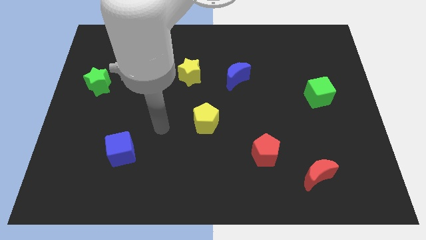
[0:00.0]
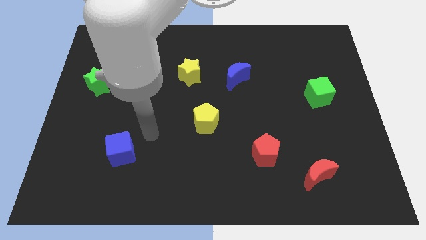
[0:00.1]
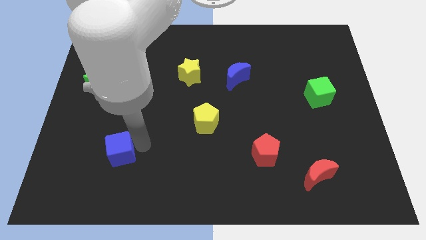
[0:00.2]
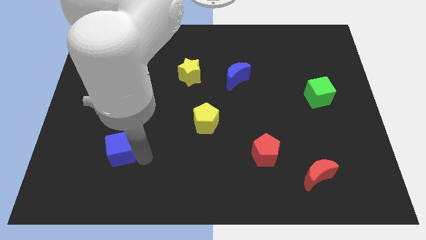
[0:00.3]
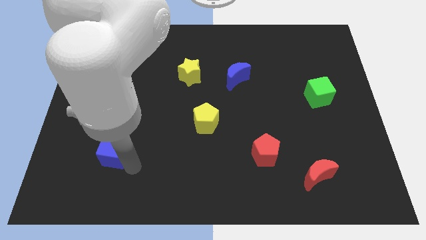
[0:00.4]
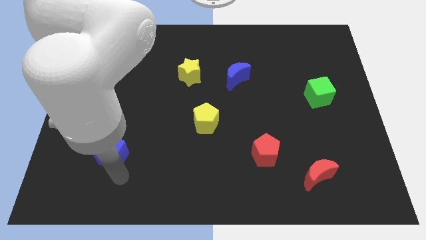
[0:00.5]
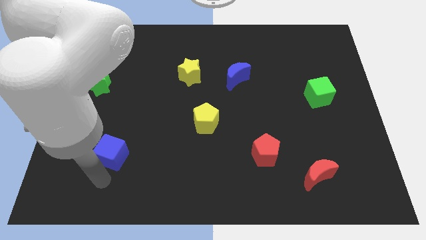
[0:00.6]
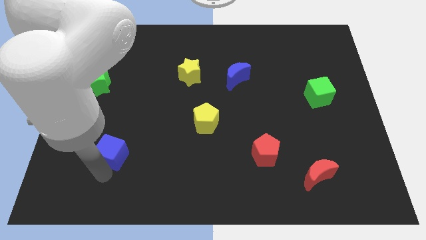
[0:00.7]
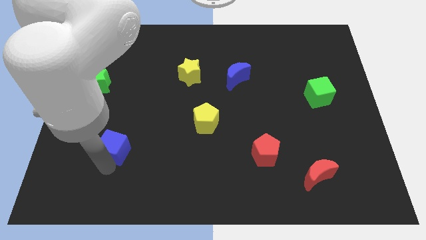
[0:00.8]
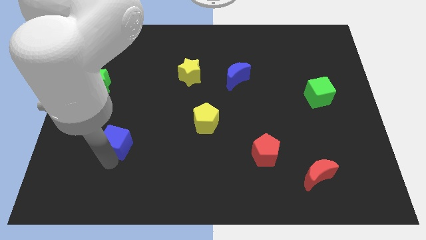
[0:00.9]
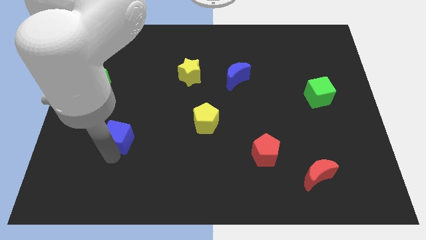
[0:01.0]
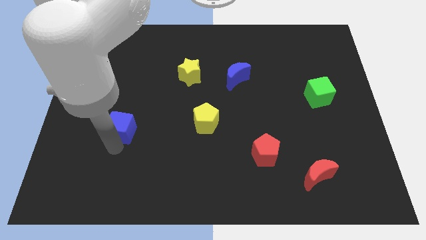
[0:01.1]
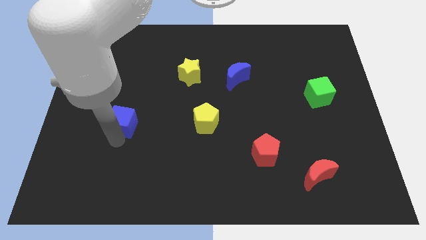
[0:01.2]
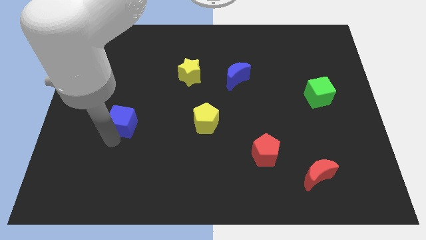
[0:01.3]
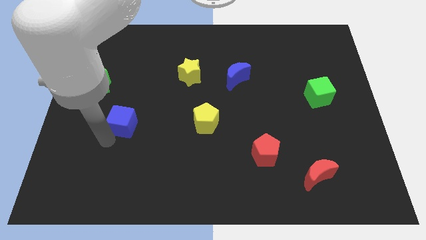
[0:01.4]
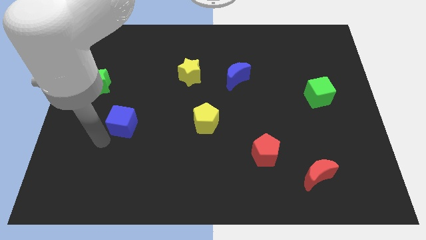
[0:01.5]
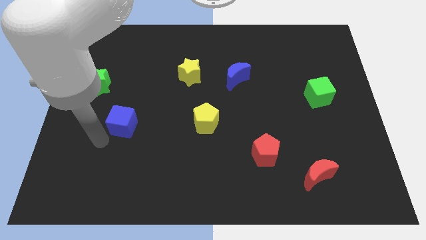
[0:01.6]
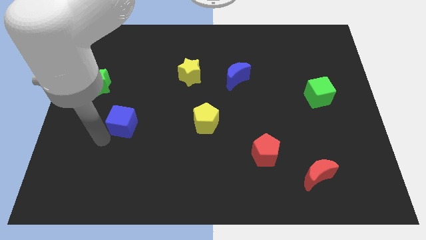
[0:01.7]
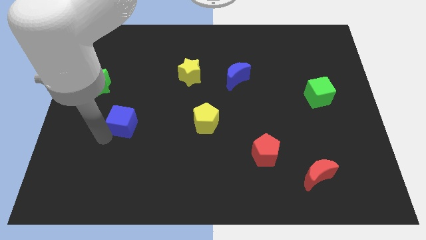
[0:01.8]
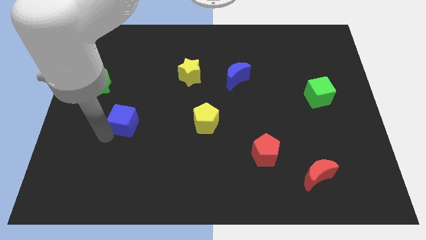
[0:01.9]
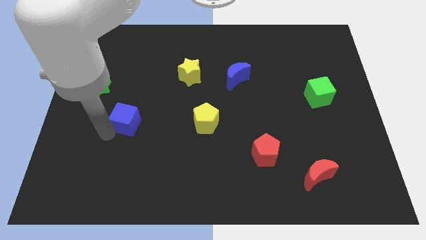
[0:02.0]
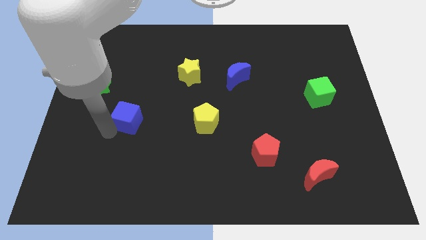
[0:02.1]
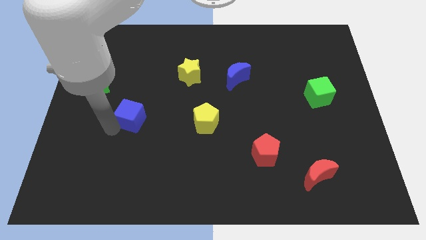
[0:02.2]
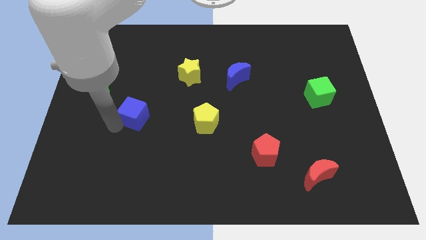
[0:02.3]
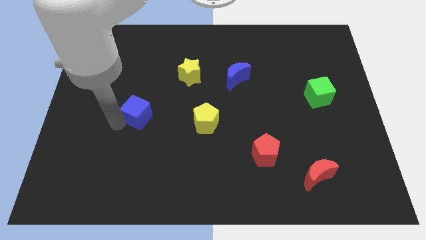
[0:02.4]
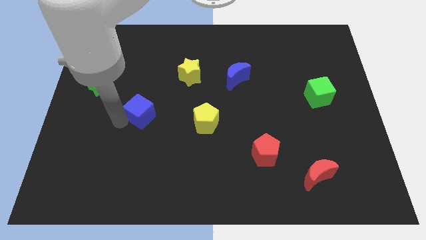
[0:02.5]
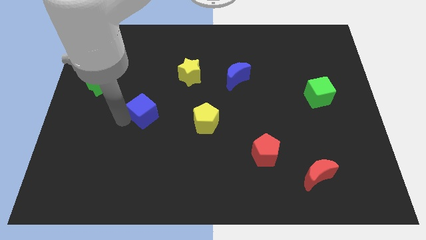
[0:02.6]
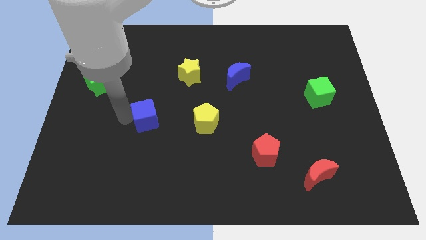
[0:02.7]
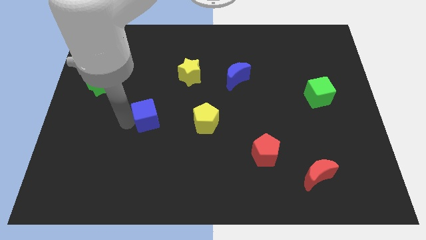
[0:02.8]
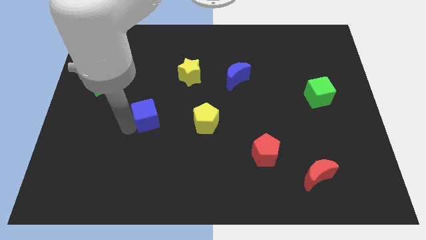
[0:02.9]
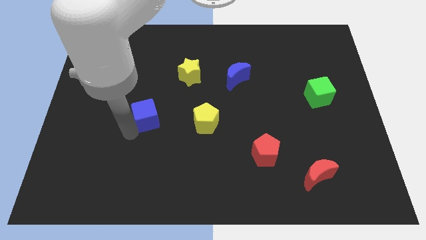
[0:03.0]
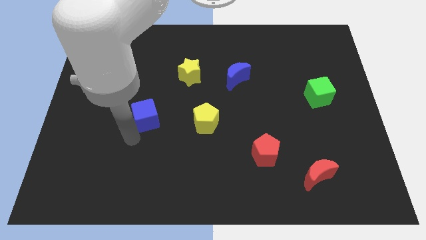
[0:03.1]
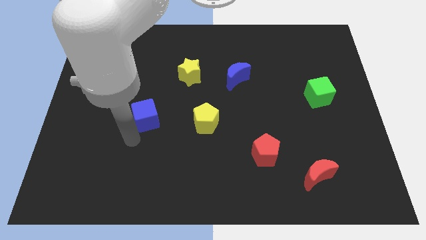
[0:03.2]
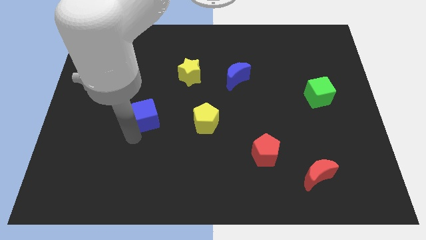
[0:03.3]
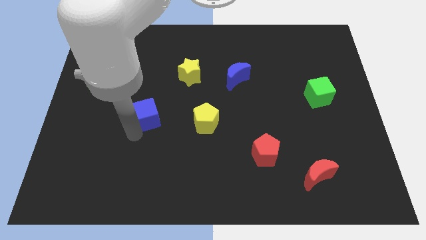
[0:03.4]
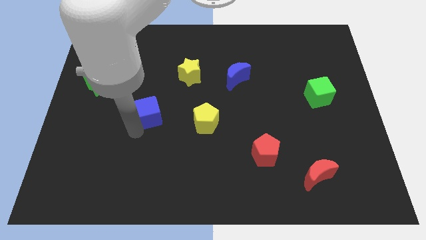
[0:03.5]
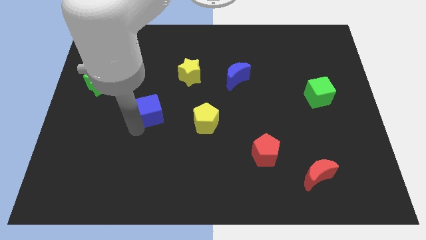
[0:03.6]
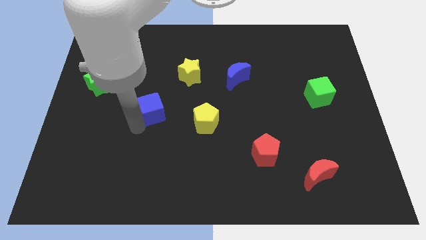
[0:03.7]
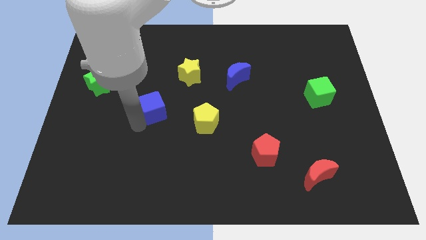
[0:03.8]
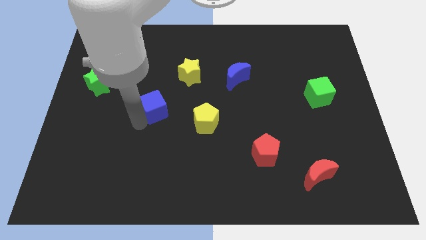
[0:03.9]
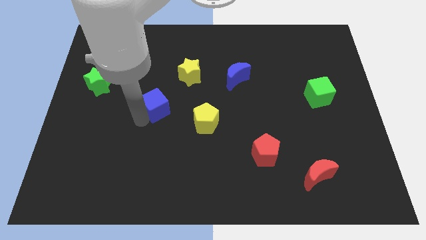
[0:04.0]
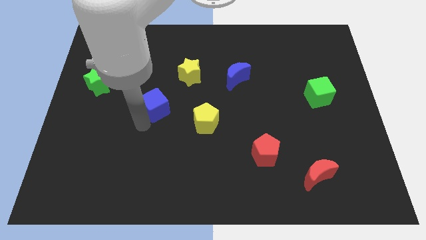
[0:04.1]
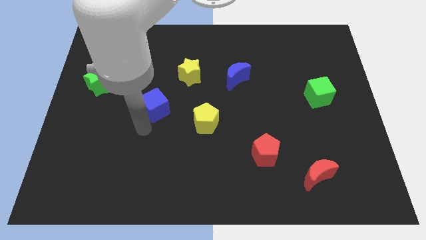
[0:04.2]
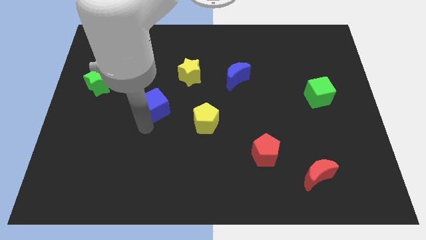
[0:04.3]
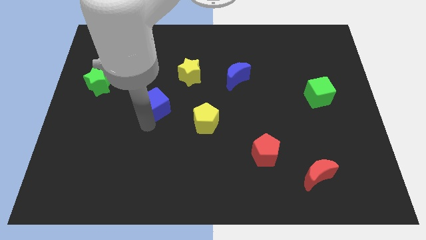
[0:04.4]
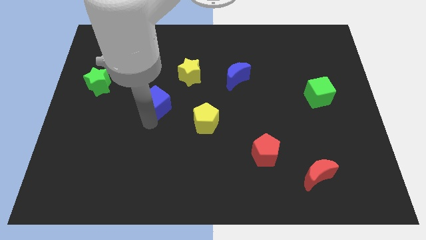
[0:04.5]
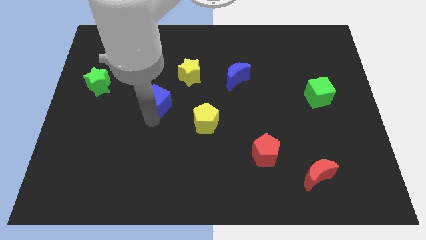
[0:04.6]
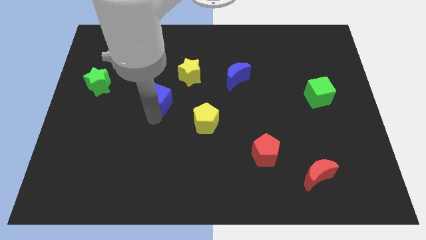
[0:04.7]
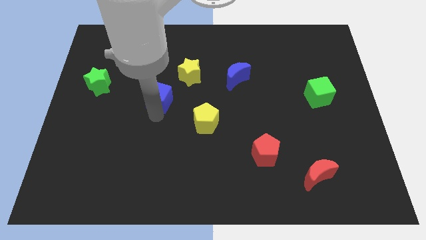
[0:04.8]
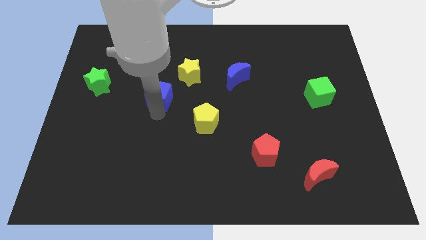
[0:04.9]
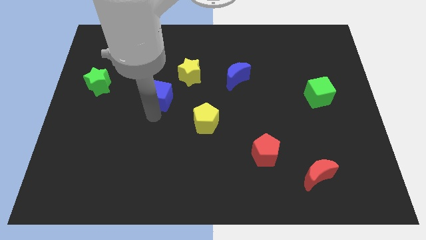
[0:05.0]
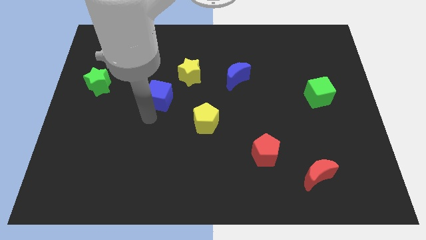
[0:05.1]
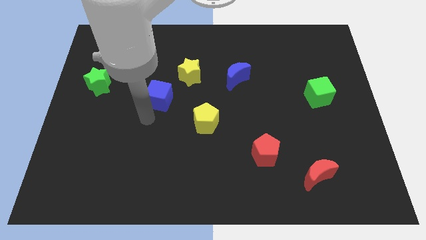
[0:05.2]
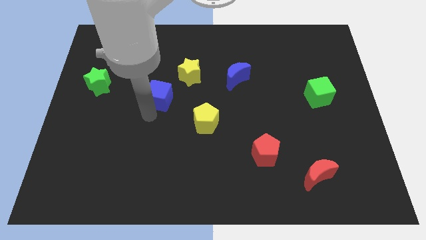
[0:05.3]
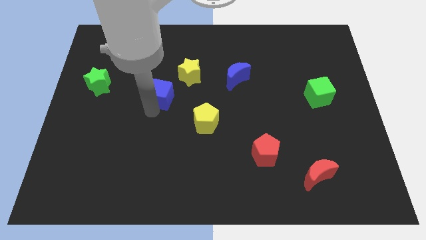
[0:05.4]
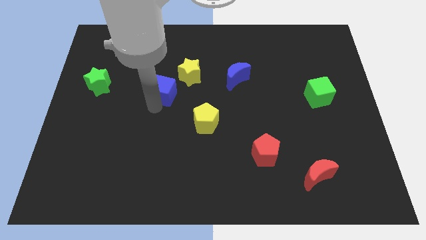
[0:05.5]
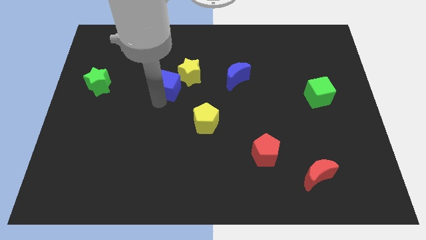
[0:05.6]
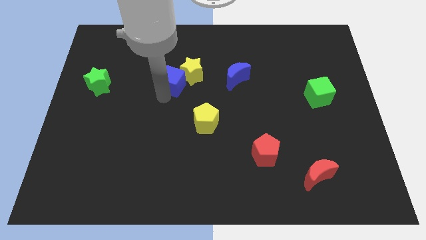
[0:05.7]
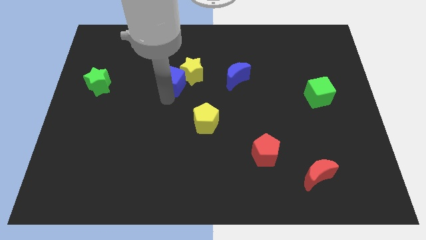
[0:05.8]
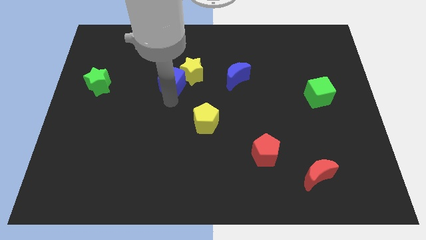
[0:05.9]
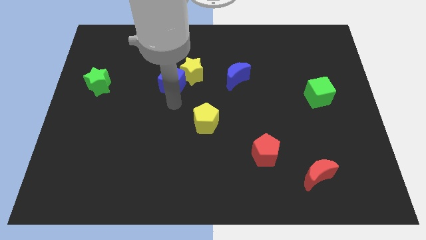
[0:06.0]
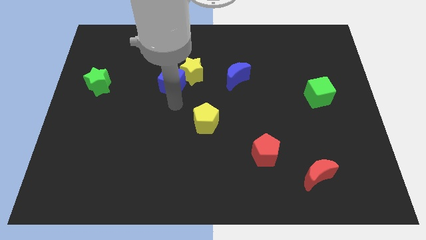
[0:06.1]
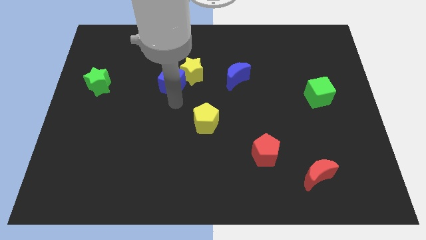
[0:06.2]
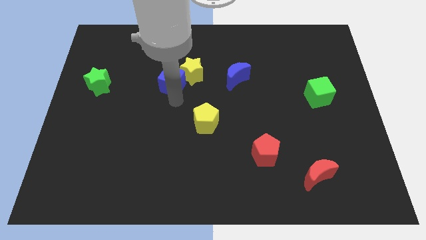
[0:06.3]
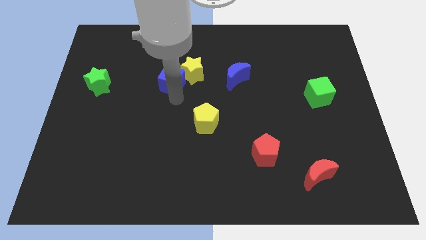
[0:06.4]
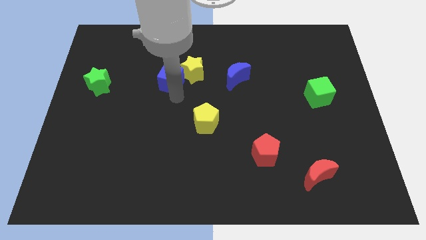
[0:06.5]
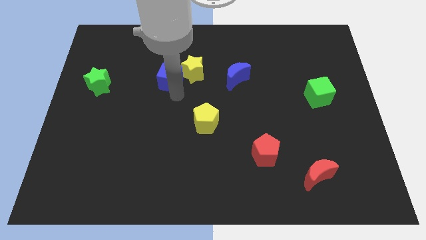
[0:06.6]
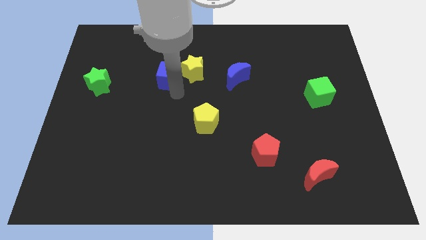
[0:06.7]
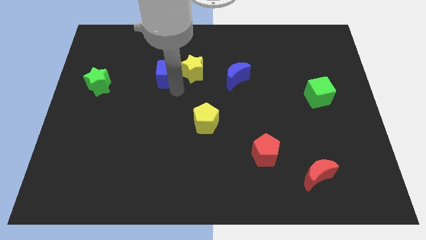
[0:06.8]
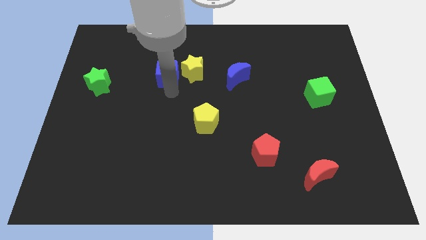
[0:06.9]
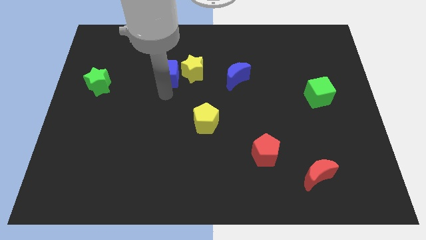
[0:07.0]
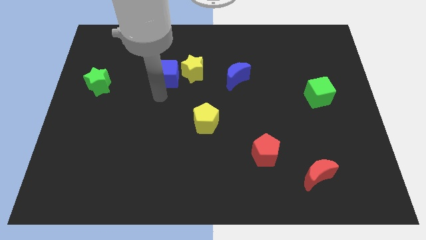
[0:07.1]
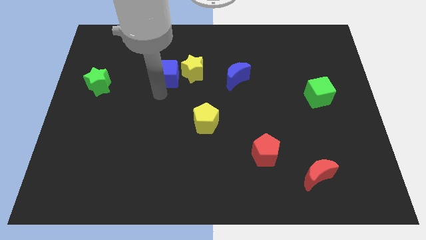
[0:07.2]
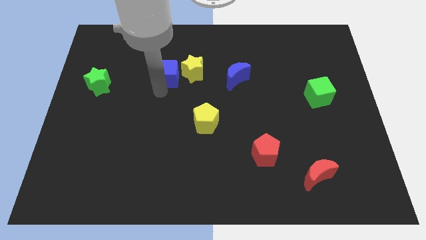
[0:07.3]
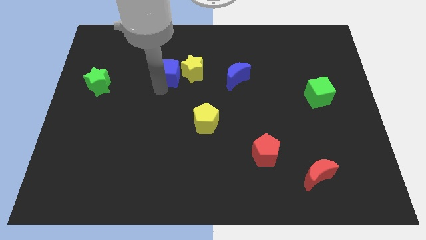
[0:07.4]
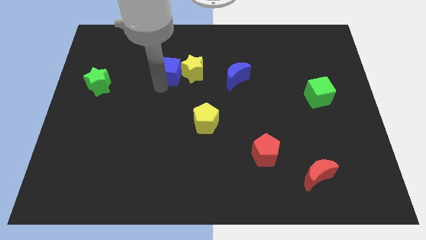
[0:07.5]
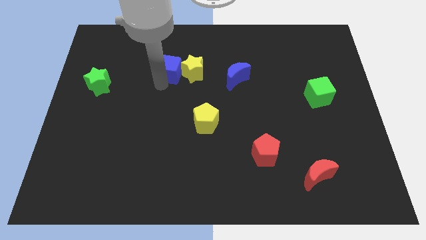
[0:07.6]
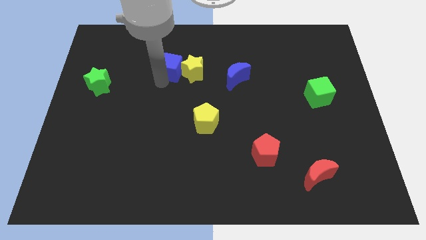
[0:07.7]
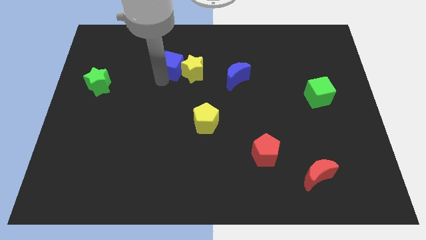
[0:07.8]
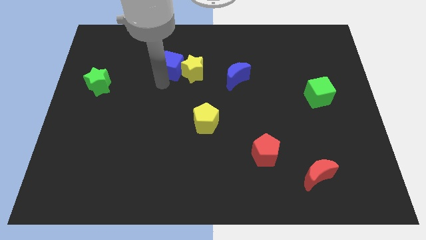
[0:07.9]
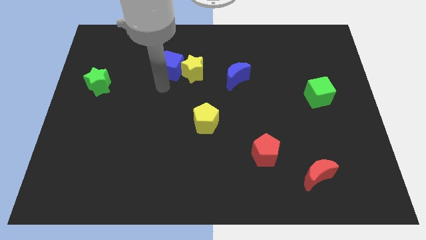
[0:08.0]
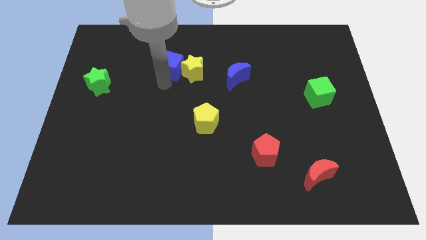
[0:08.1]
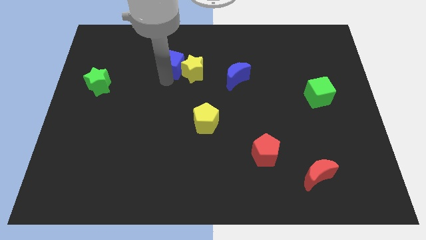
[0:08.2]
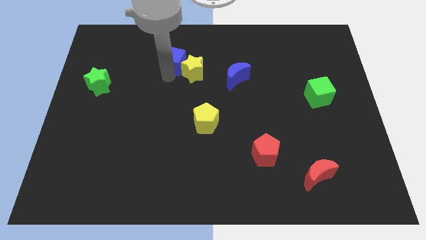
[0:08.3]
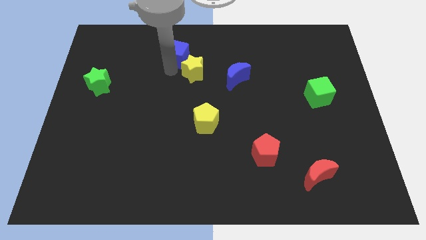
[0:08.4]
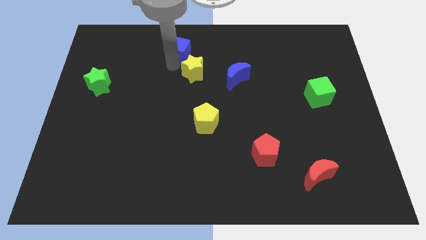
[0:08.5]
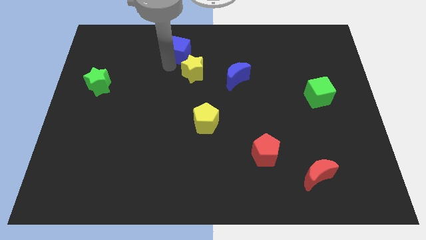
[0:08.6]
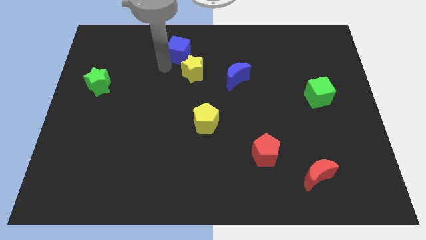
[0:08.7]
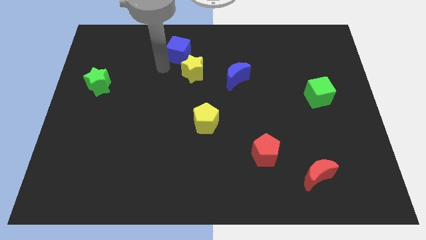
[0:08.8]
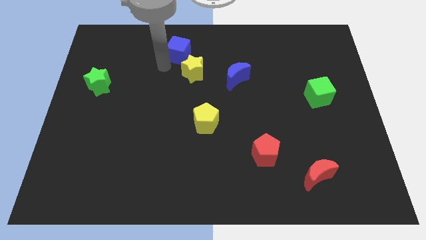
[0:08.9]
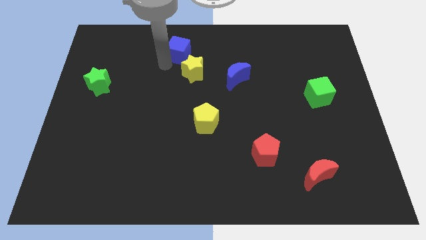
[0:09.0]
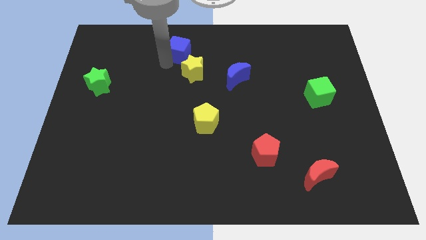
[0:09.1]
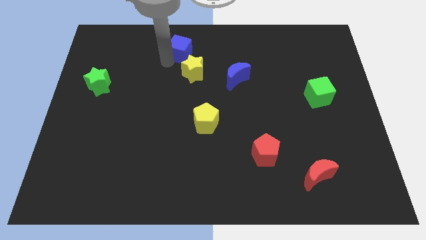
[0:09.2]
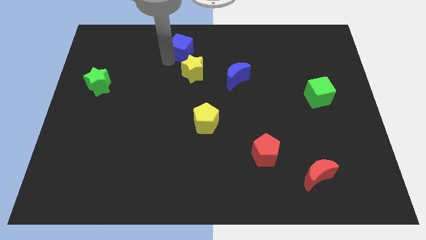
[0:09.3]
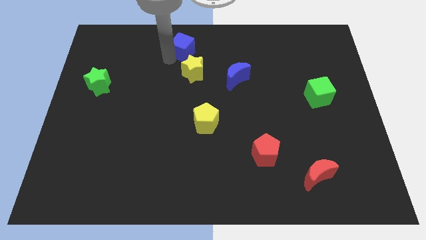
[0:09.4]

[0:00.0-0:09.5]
slide the blue cube to the towards your base
